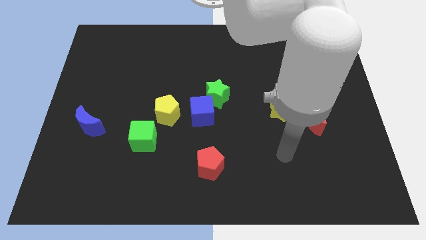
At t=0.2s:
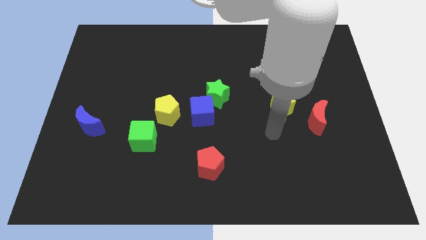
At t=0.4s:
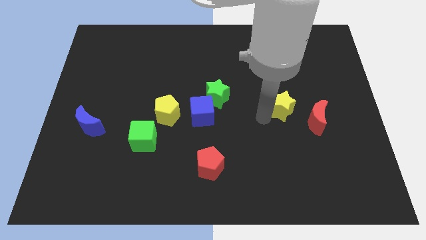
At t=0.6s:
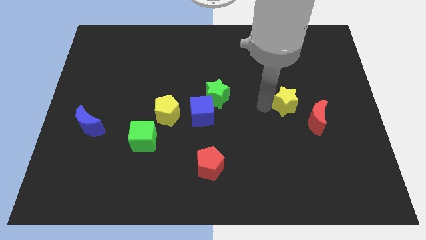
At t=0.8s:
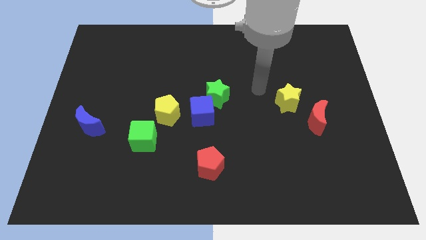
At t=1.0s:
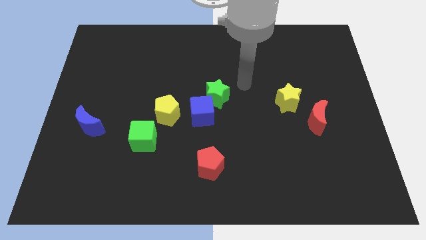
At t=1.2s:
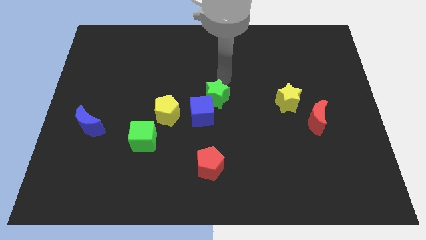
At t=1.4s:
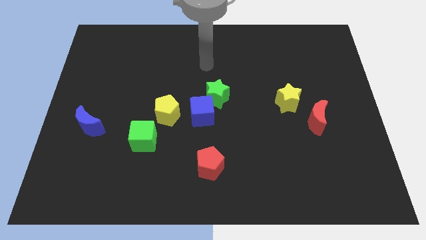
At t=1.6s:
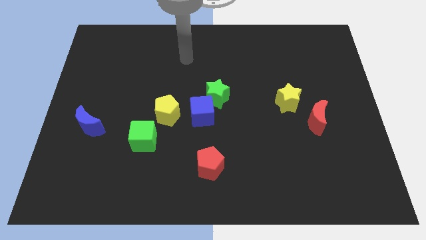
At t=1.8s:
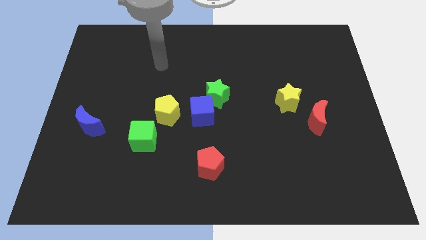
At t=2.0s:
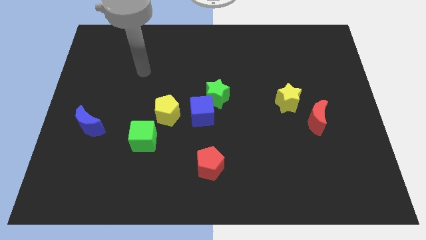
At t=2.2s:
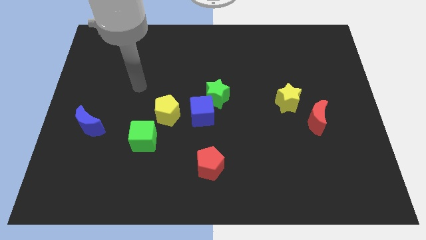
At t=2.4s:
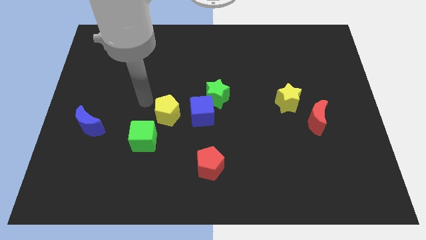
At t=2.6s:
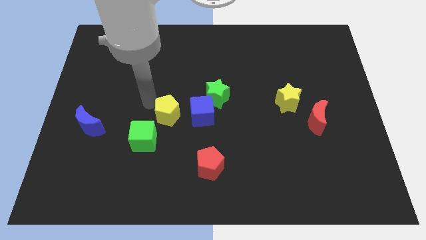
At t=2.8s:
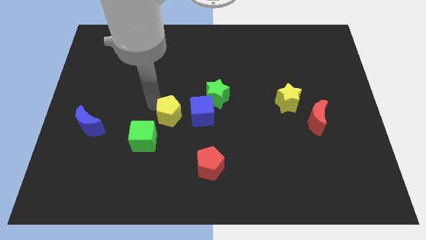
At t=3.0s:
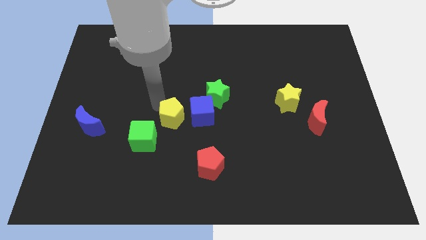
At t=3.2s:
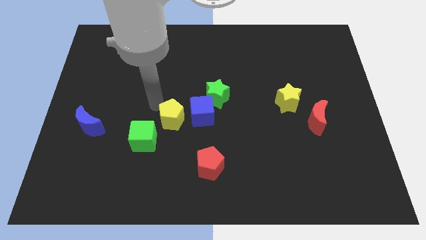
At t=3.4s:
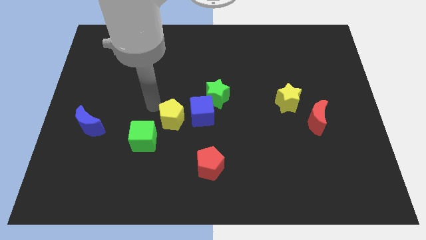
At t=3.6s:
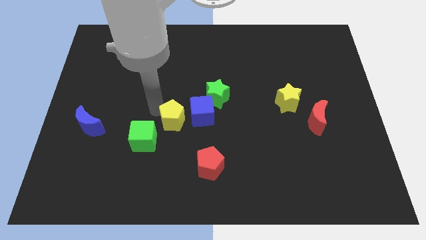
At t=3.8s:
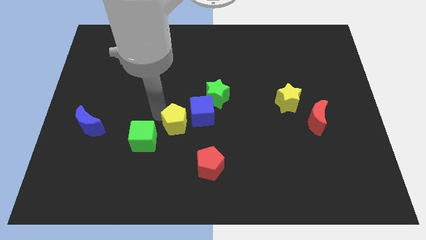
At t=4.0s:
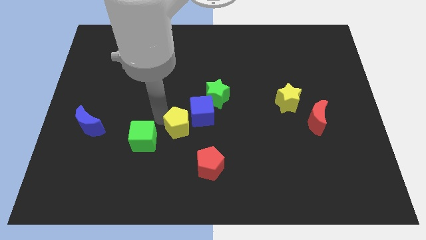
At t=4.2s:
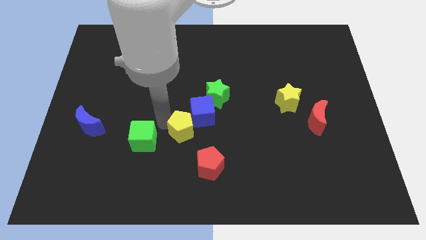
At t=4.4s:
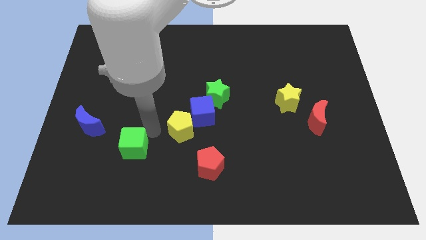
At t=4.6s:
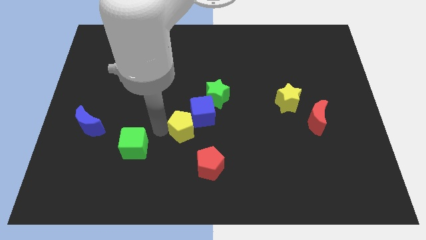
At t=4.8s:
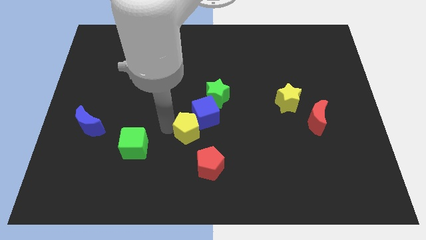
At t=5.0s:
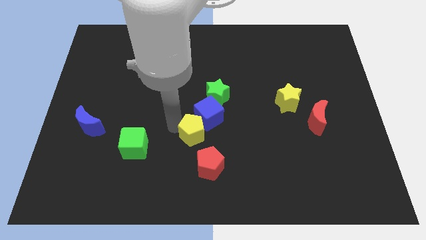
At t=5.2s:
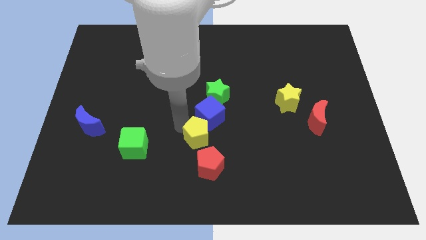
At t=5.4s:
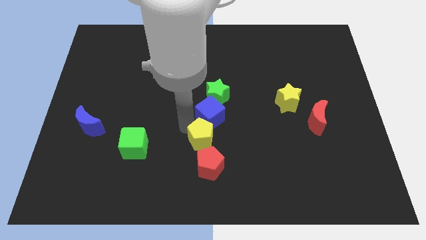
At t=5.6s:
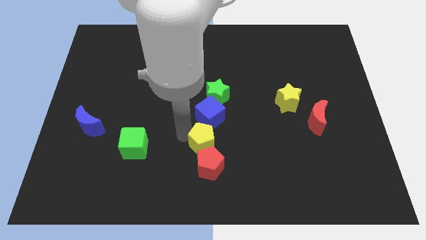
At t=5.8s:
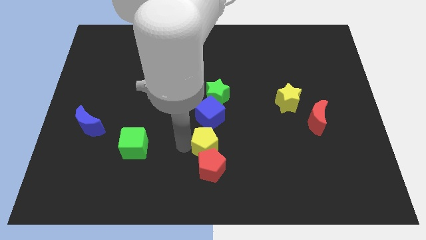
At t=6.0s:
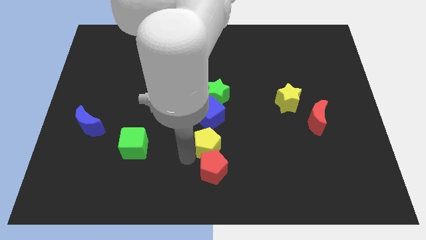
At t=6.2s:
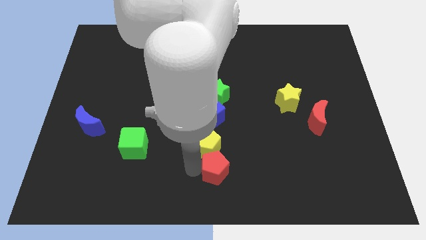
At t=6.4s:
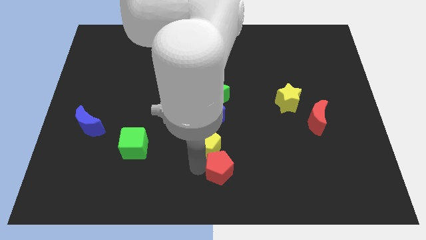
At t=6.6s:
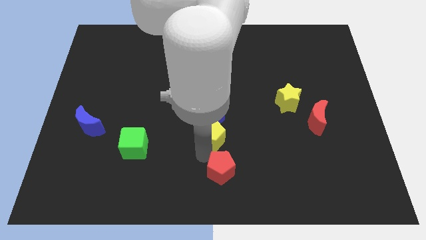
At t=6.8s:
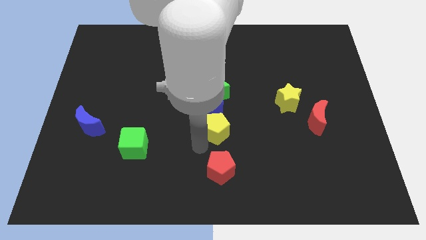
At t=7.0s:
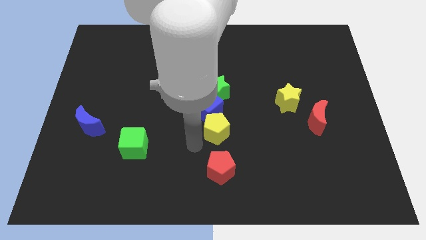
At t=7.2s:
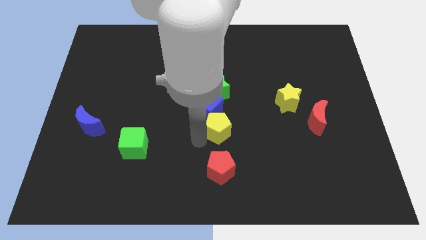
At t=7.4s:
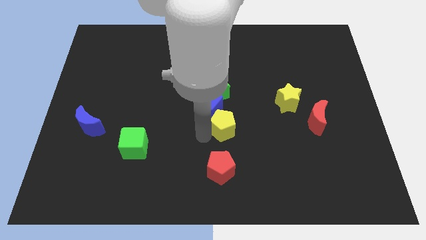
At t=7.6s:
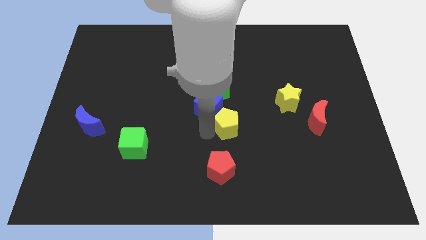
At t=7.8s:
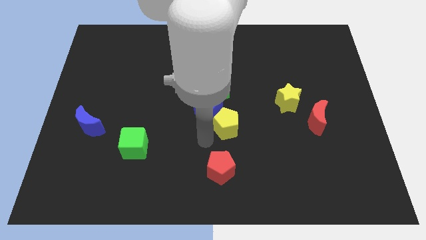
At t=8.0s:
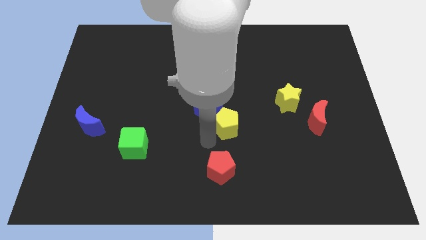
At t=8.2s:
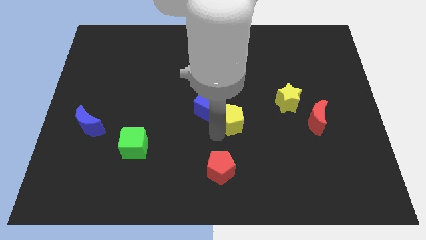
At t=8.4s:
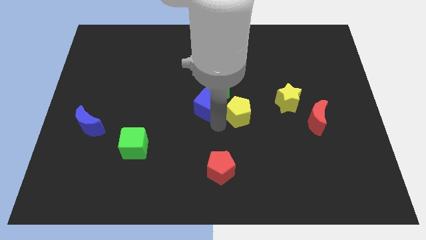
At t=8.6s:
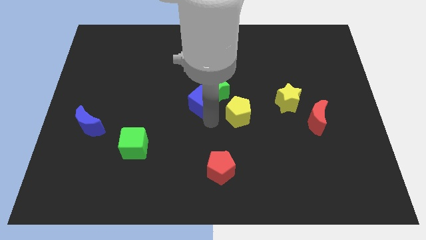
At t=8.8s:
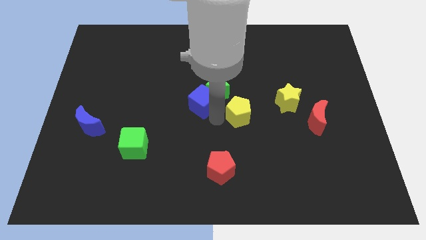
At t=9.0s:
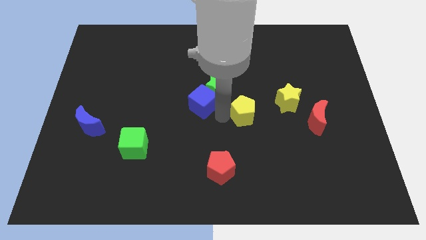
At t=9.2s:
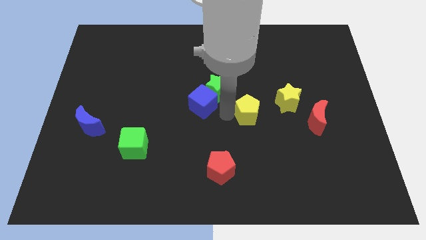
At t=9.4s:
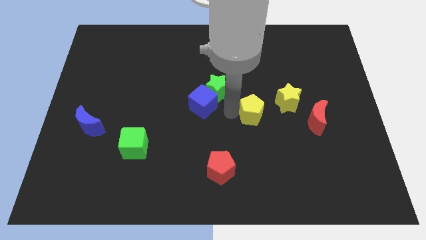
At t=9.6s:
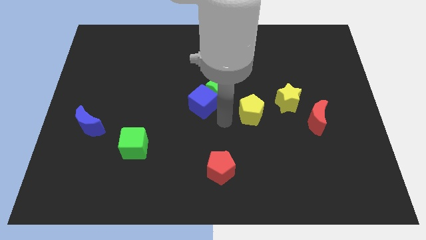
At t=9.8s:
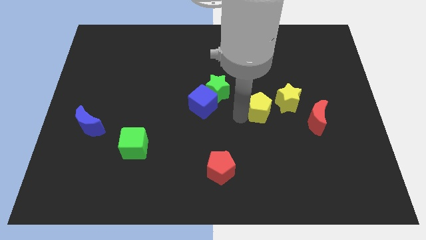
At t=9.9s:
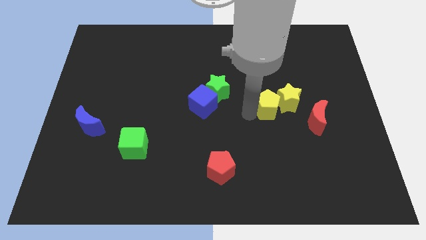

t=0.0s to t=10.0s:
slide the yellow pentagon next to the yellow star

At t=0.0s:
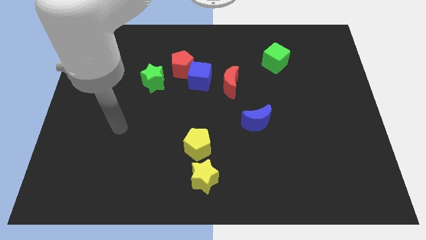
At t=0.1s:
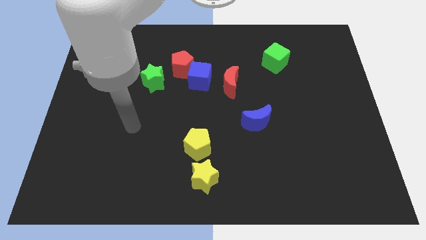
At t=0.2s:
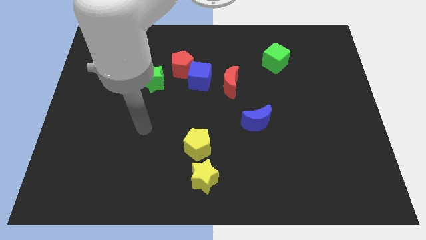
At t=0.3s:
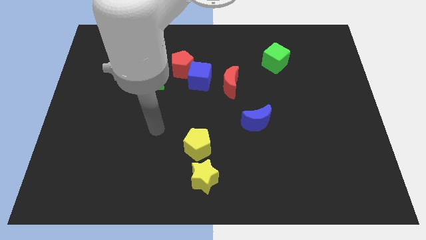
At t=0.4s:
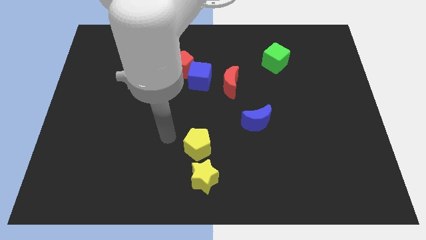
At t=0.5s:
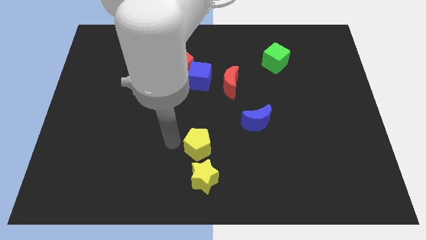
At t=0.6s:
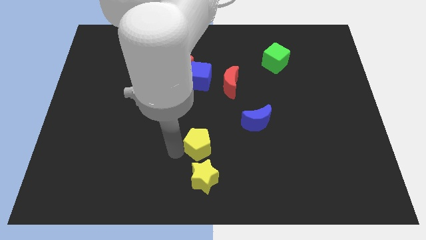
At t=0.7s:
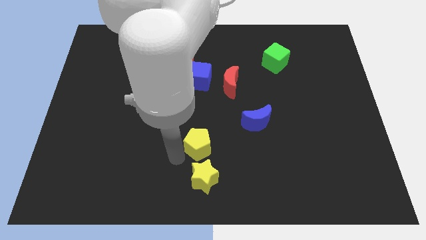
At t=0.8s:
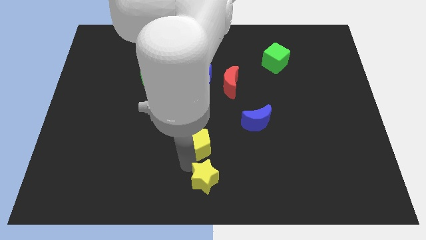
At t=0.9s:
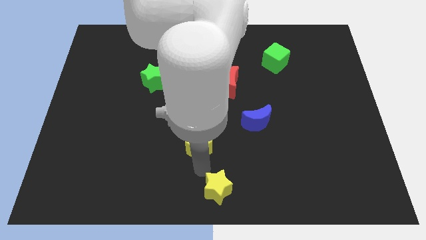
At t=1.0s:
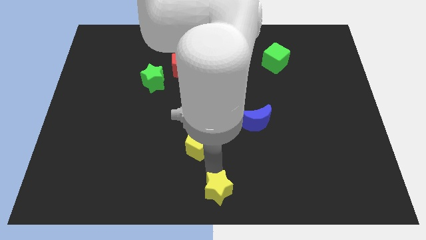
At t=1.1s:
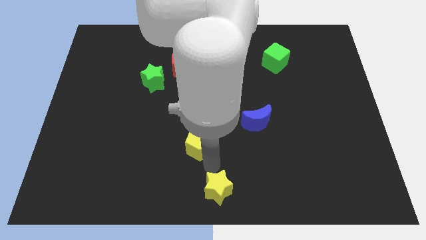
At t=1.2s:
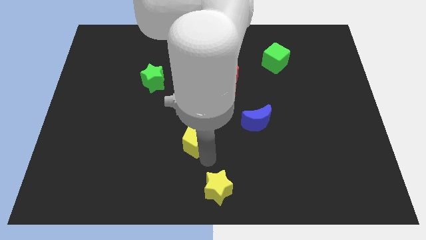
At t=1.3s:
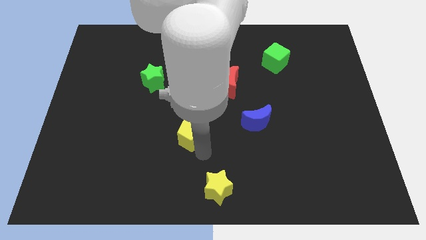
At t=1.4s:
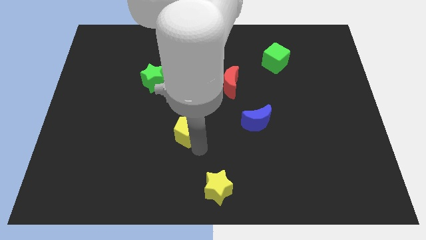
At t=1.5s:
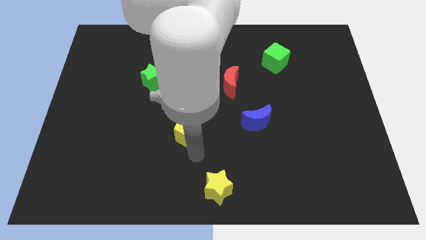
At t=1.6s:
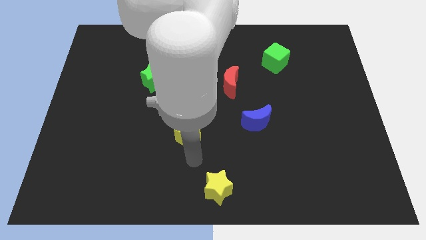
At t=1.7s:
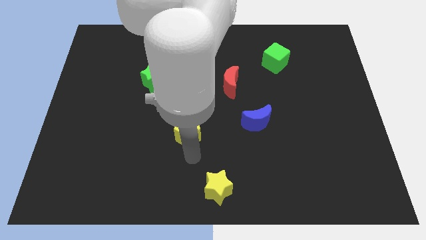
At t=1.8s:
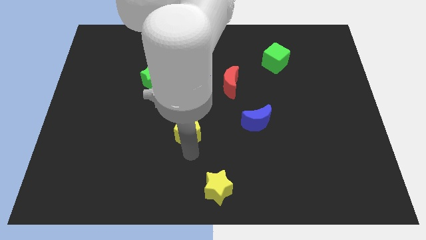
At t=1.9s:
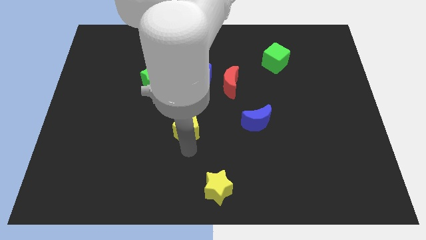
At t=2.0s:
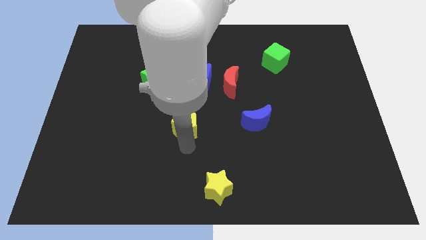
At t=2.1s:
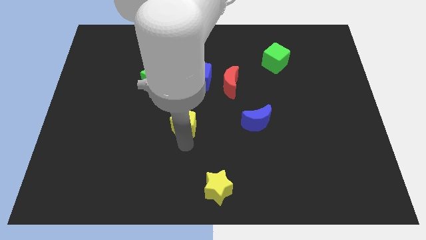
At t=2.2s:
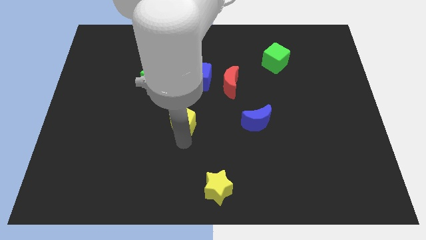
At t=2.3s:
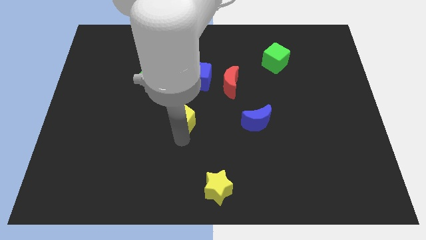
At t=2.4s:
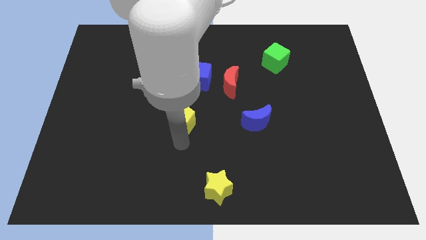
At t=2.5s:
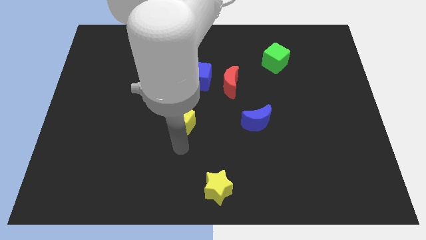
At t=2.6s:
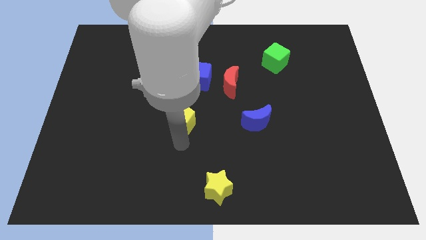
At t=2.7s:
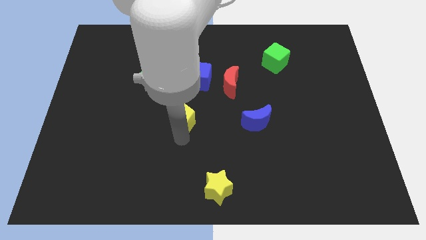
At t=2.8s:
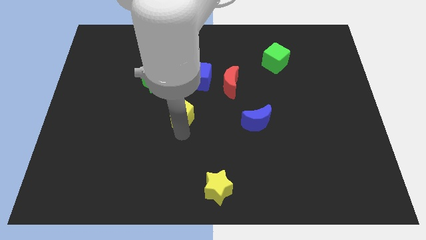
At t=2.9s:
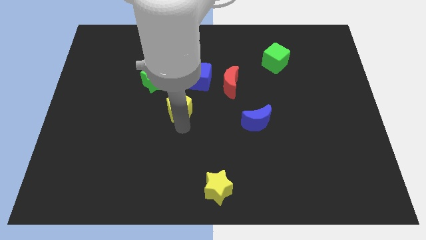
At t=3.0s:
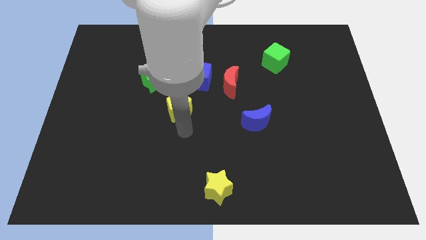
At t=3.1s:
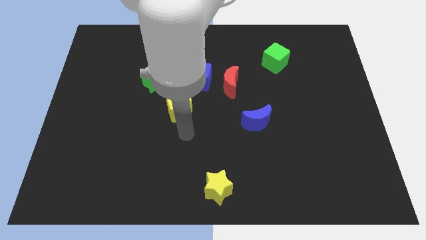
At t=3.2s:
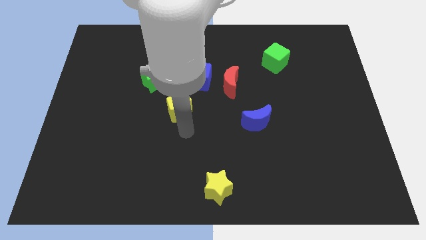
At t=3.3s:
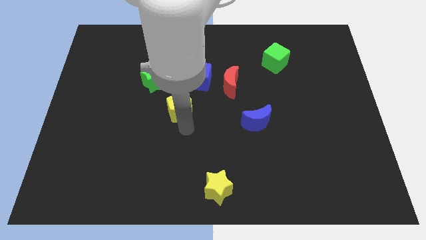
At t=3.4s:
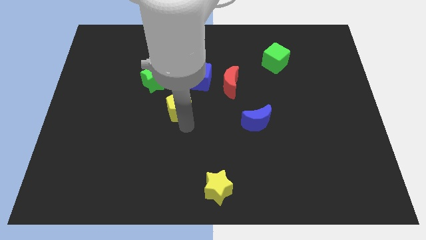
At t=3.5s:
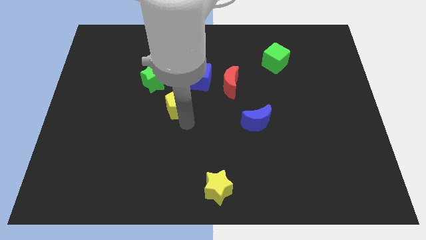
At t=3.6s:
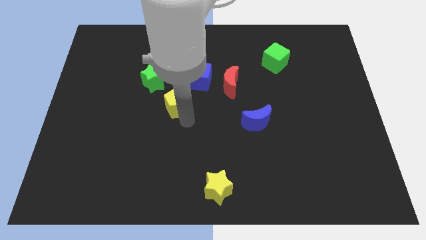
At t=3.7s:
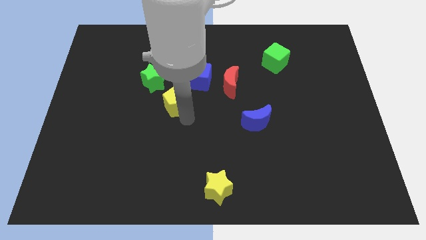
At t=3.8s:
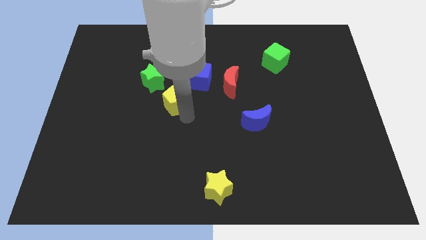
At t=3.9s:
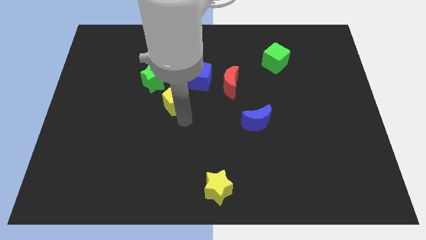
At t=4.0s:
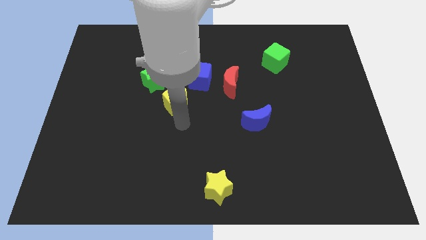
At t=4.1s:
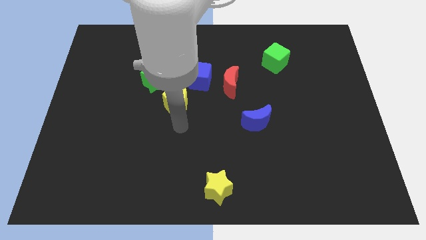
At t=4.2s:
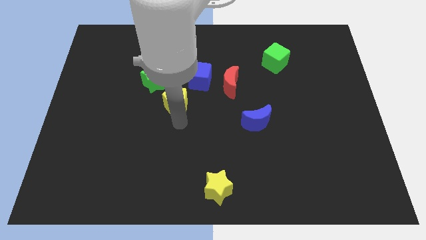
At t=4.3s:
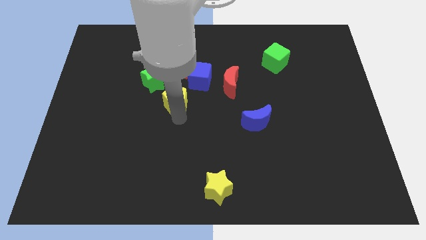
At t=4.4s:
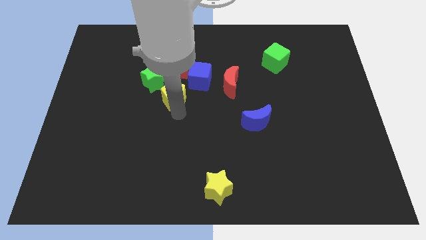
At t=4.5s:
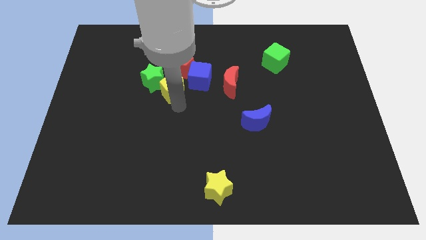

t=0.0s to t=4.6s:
push the yellow pentagon to the green star
